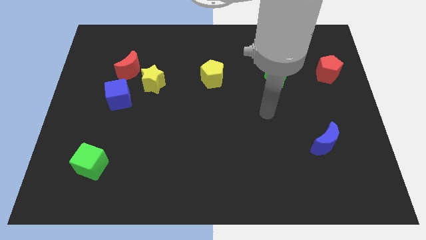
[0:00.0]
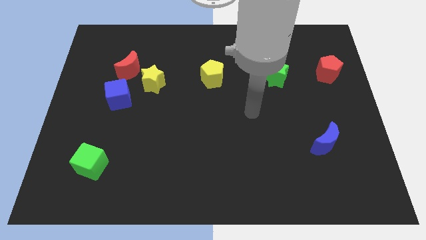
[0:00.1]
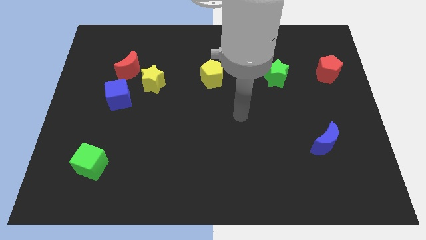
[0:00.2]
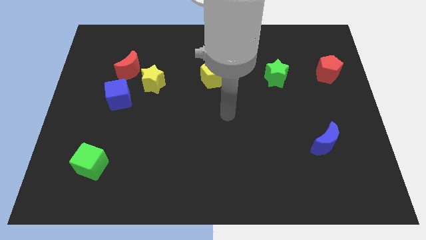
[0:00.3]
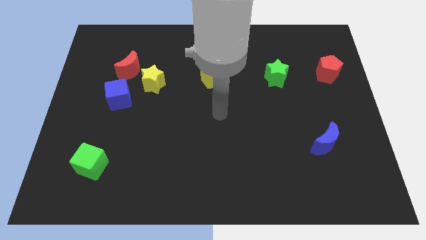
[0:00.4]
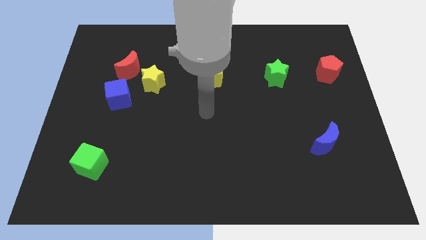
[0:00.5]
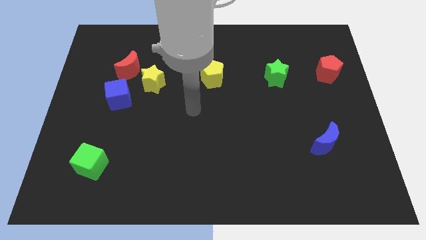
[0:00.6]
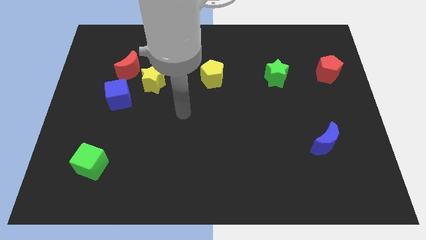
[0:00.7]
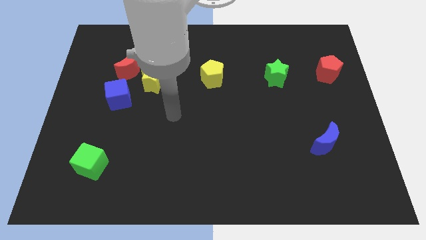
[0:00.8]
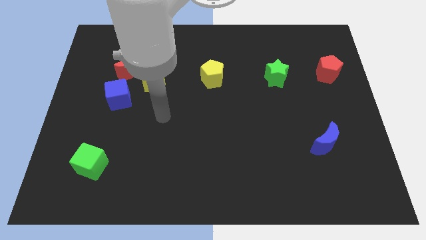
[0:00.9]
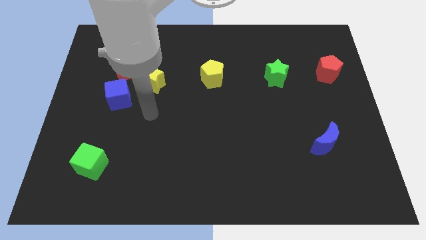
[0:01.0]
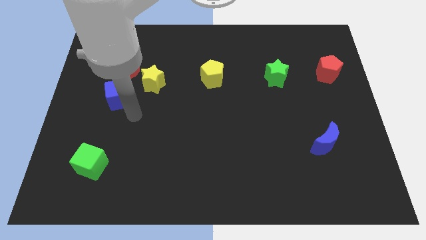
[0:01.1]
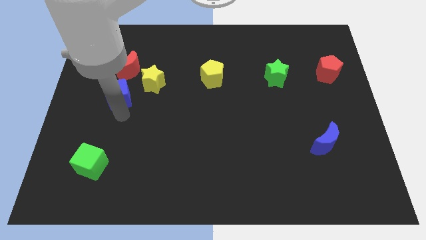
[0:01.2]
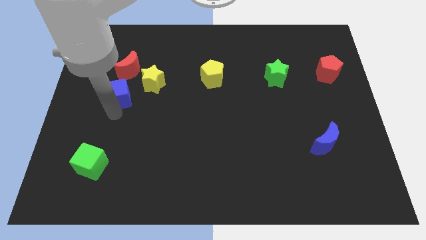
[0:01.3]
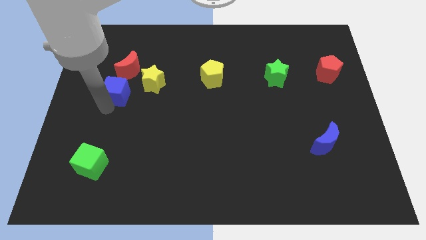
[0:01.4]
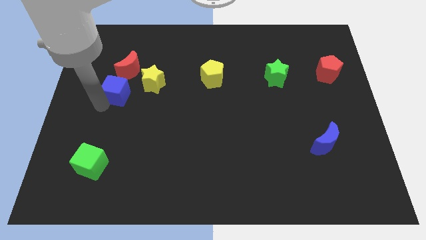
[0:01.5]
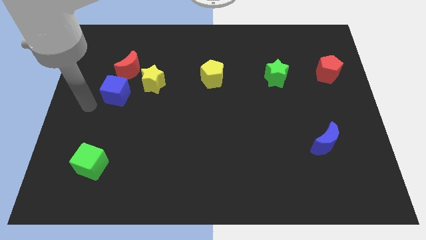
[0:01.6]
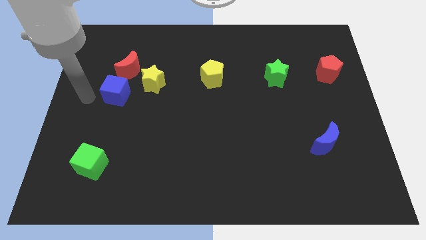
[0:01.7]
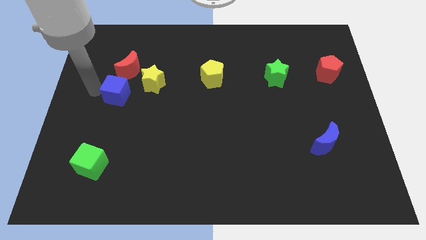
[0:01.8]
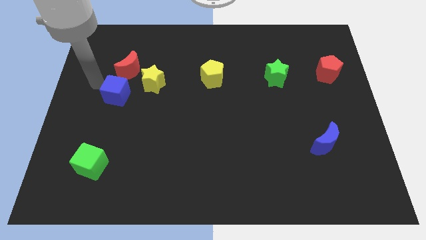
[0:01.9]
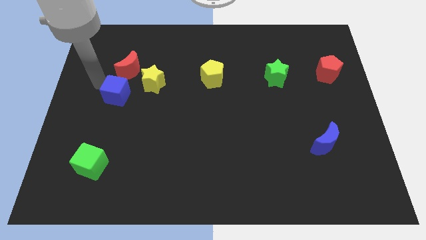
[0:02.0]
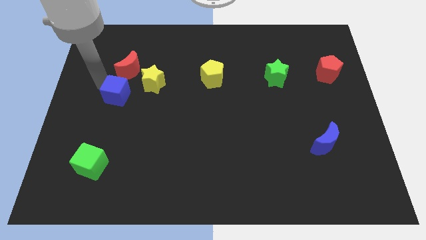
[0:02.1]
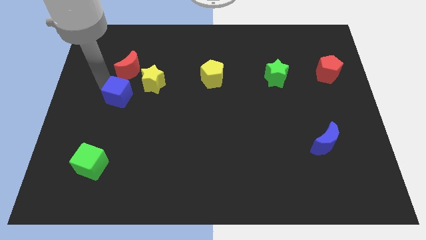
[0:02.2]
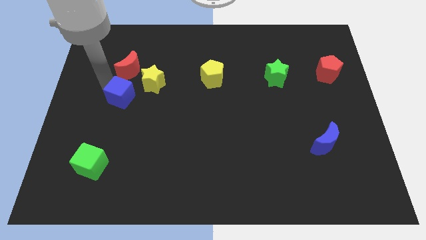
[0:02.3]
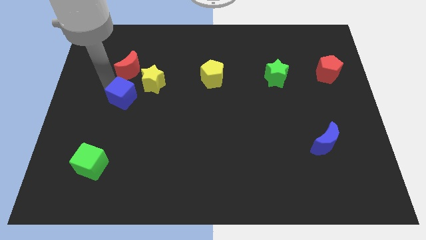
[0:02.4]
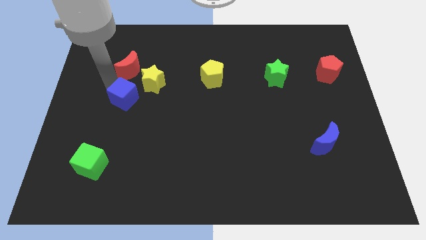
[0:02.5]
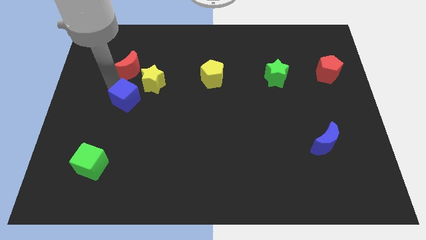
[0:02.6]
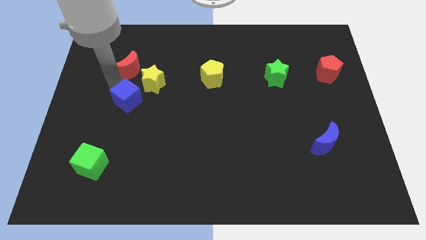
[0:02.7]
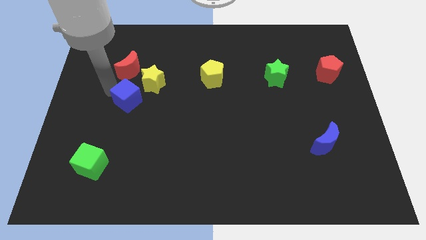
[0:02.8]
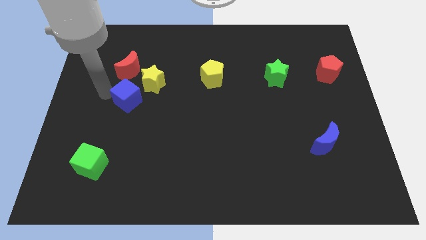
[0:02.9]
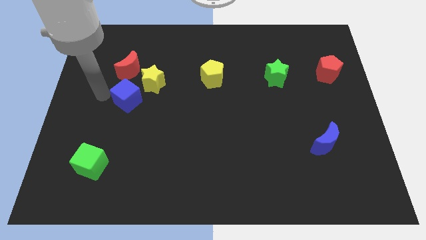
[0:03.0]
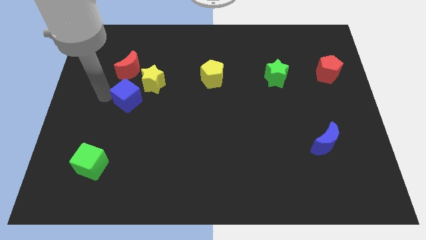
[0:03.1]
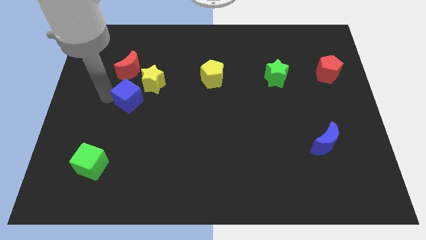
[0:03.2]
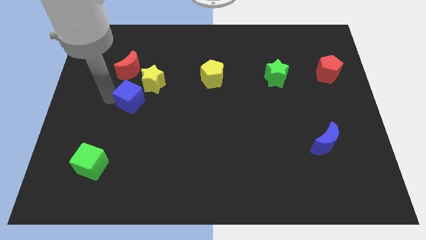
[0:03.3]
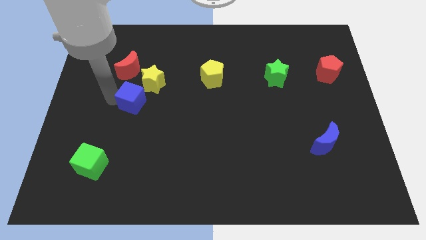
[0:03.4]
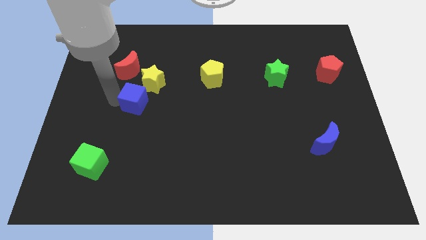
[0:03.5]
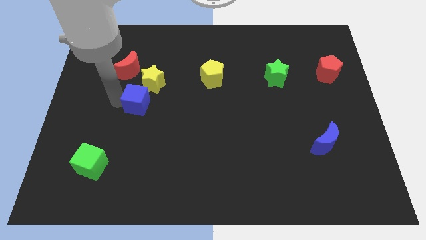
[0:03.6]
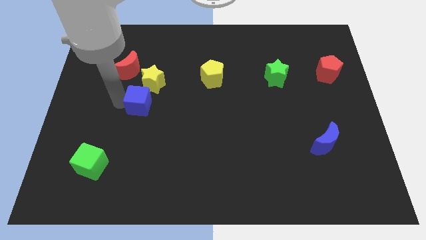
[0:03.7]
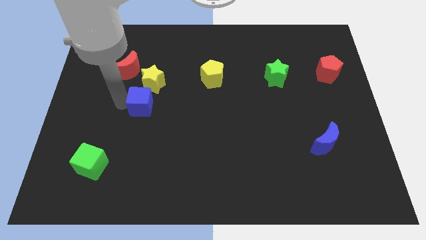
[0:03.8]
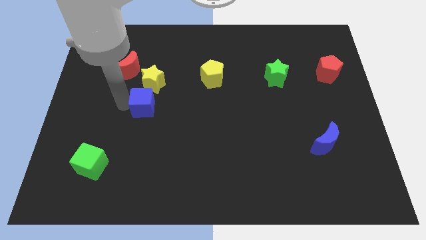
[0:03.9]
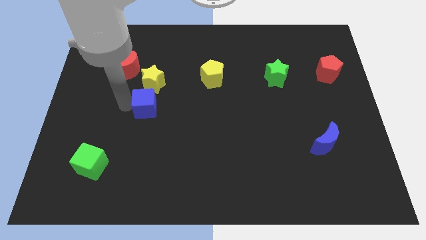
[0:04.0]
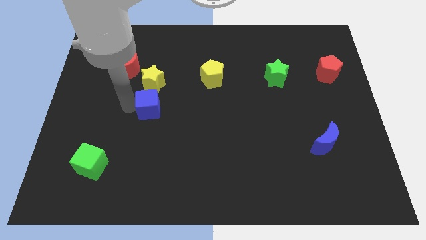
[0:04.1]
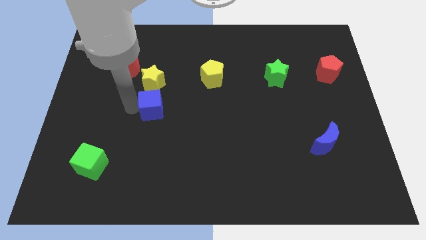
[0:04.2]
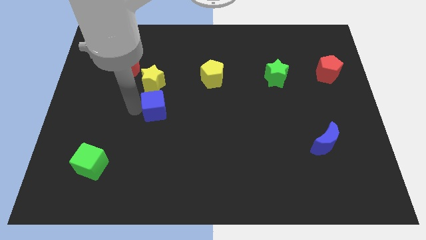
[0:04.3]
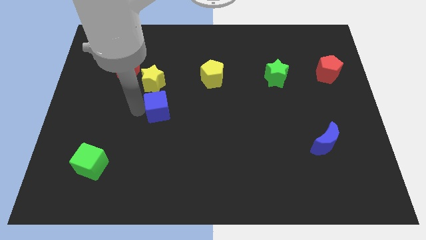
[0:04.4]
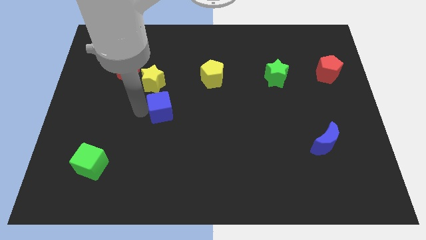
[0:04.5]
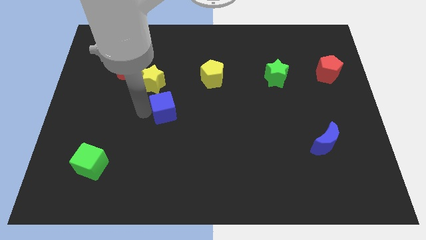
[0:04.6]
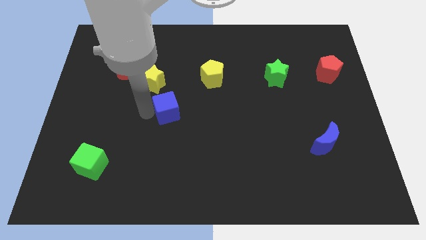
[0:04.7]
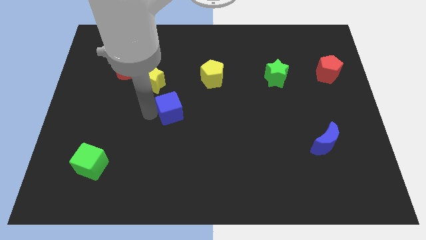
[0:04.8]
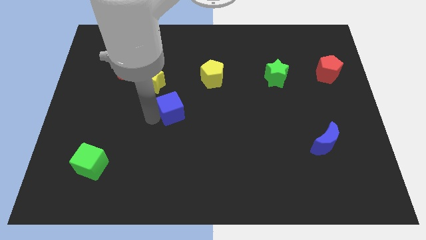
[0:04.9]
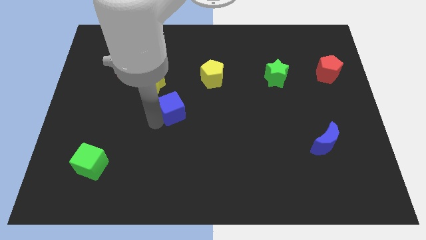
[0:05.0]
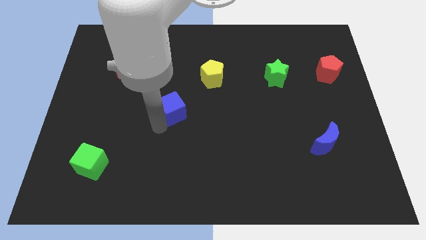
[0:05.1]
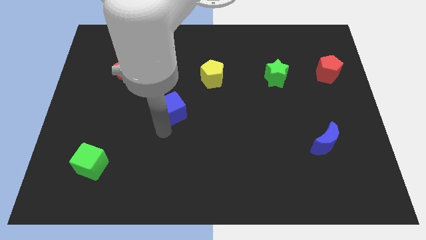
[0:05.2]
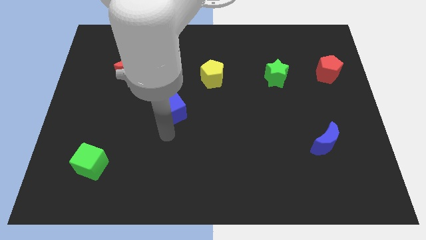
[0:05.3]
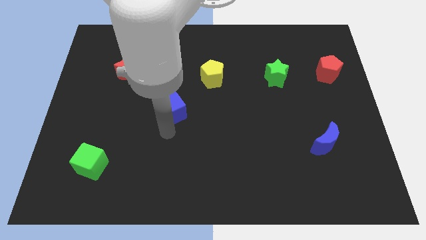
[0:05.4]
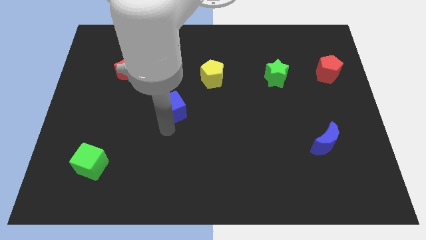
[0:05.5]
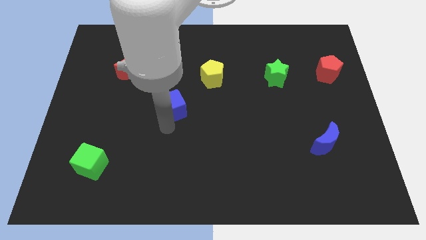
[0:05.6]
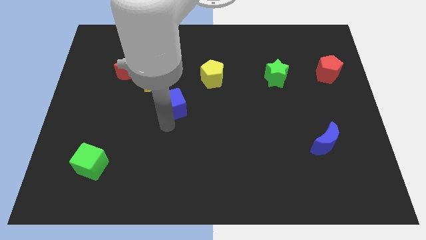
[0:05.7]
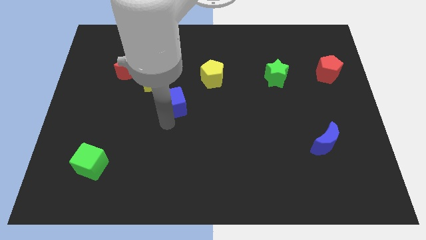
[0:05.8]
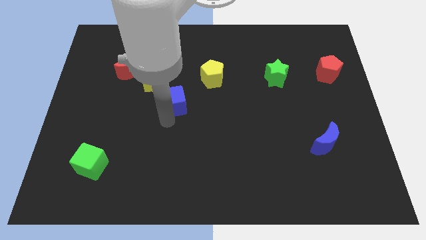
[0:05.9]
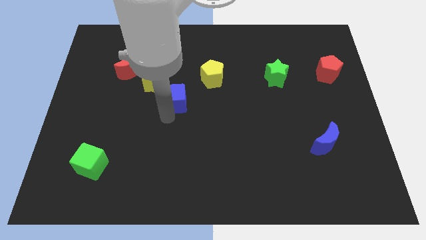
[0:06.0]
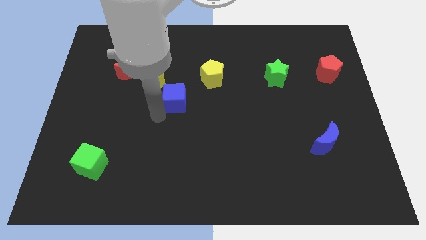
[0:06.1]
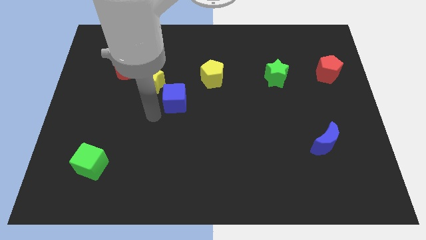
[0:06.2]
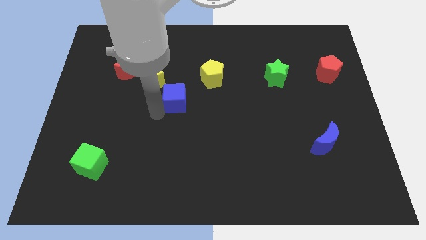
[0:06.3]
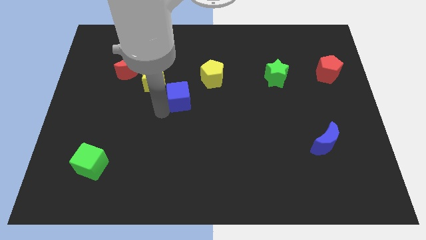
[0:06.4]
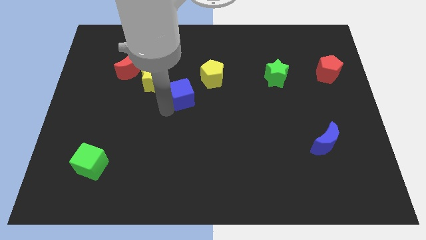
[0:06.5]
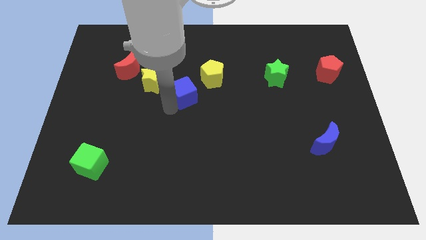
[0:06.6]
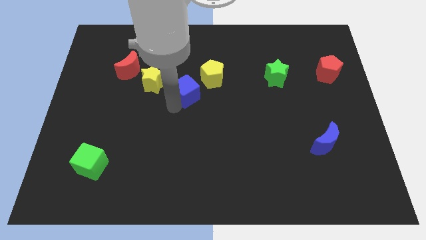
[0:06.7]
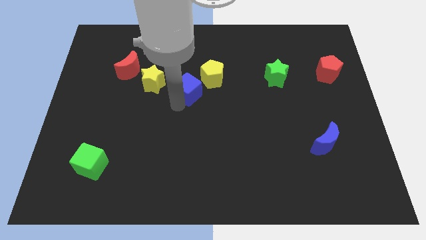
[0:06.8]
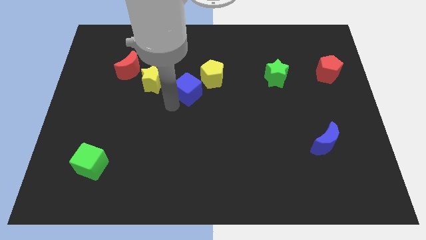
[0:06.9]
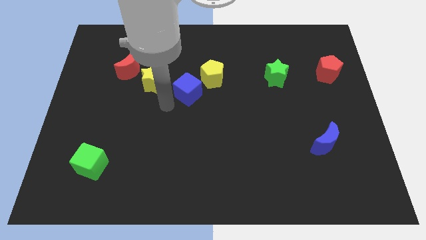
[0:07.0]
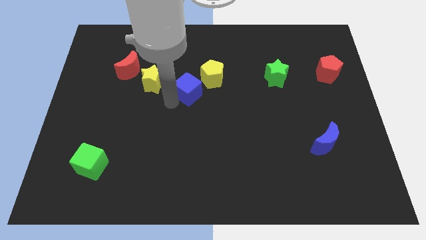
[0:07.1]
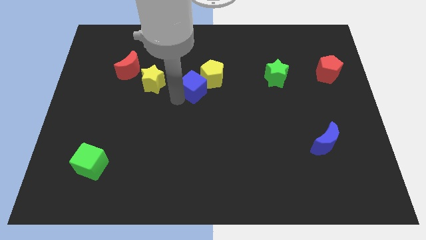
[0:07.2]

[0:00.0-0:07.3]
slide the blue cube close to the yellow pentagon
